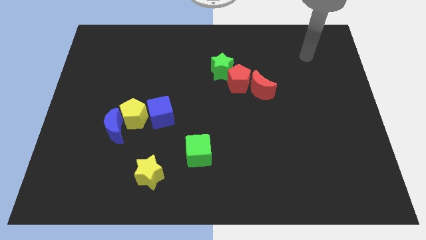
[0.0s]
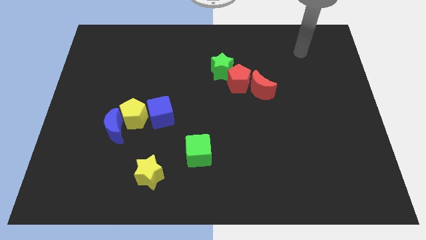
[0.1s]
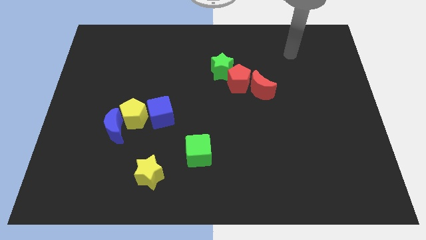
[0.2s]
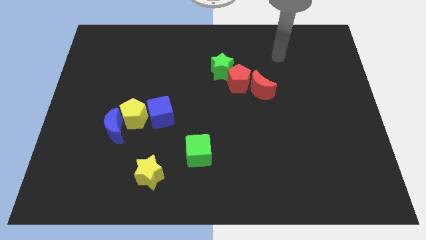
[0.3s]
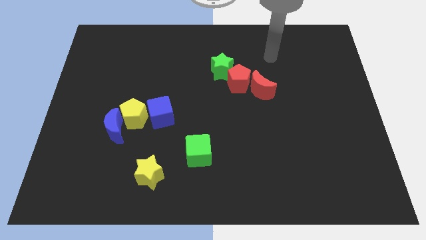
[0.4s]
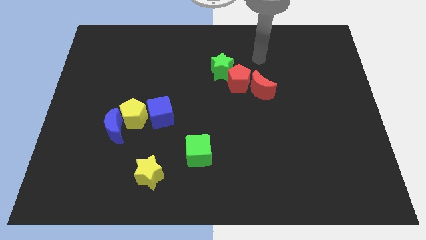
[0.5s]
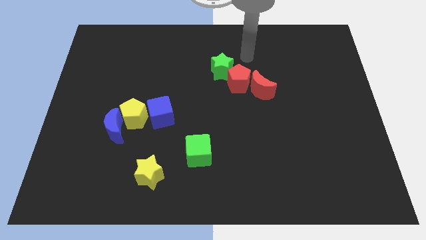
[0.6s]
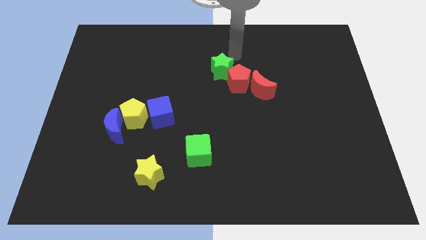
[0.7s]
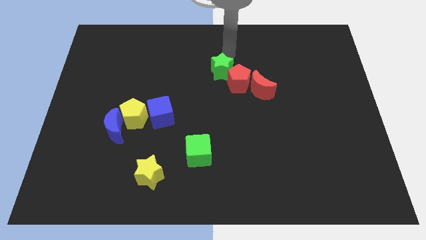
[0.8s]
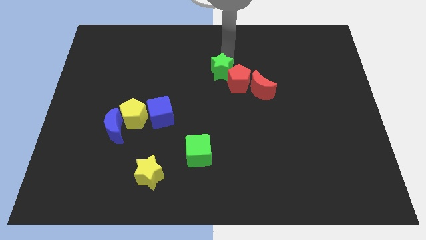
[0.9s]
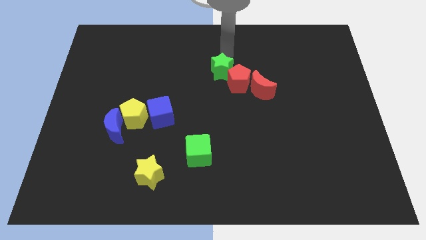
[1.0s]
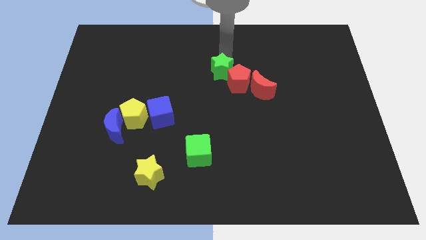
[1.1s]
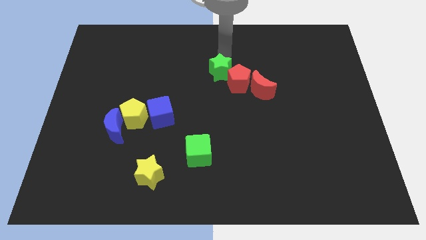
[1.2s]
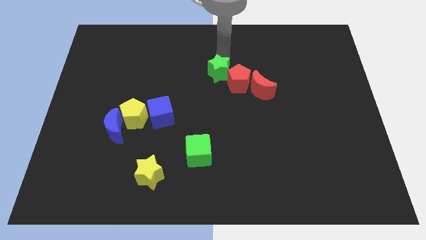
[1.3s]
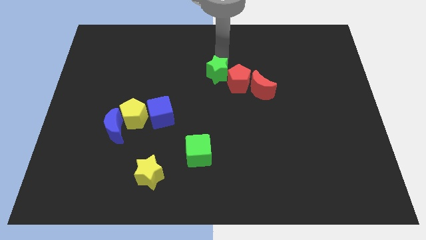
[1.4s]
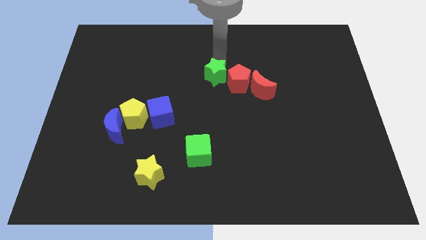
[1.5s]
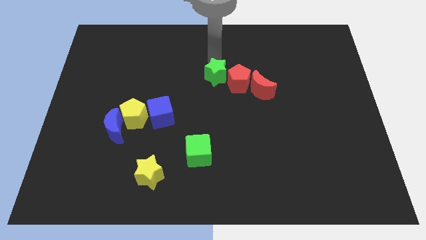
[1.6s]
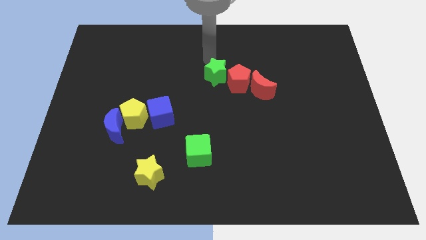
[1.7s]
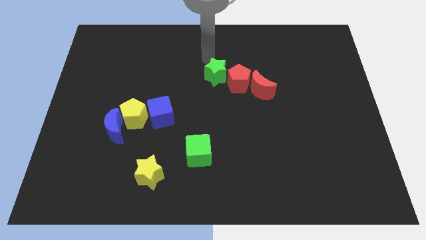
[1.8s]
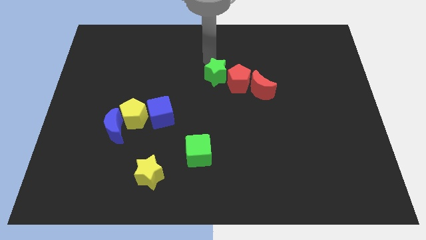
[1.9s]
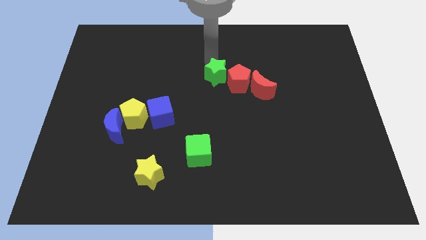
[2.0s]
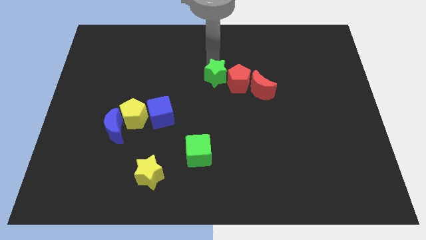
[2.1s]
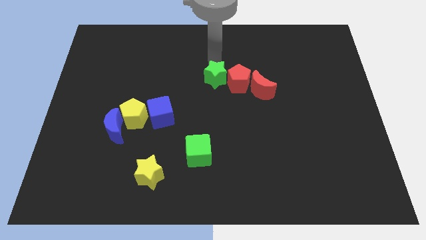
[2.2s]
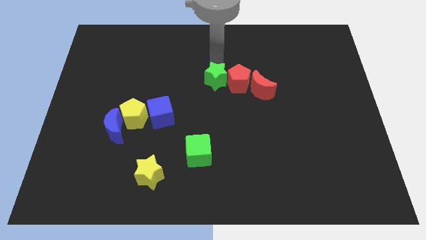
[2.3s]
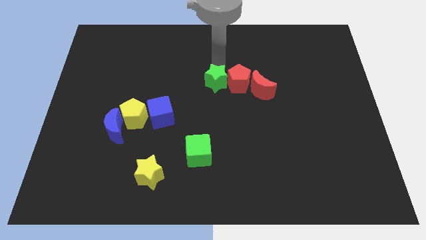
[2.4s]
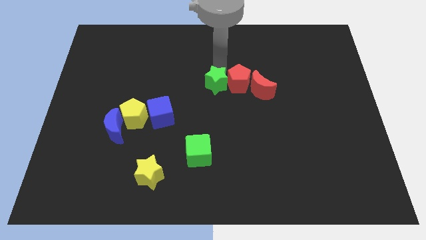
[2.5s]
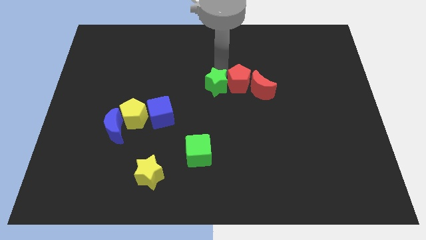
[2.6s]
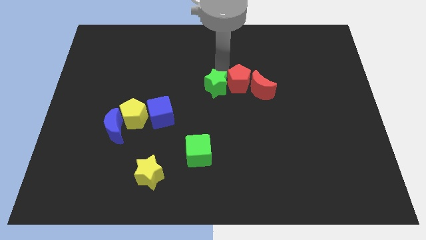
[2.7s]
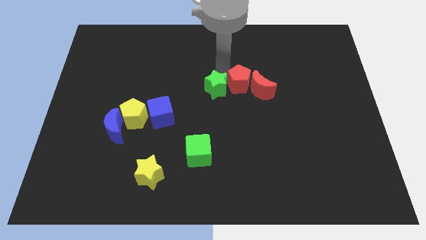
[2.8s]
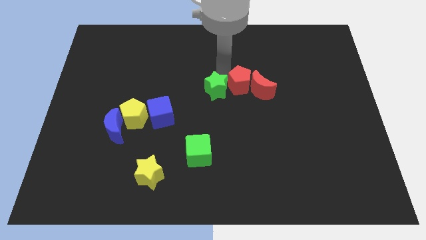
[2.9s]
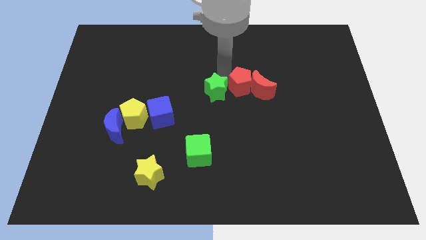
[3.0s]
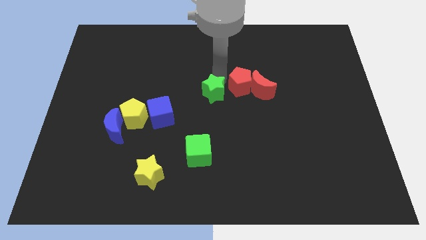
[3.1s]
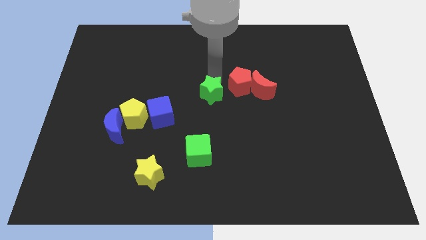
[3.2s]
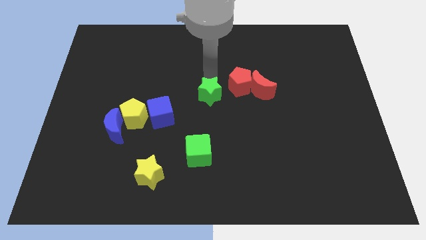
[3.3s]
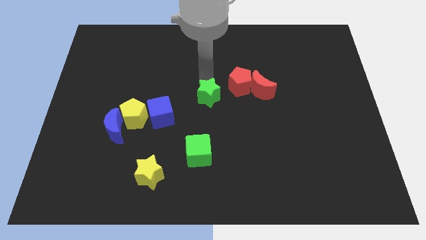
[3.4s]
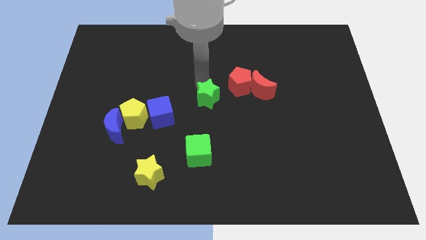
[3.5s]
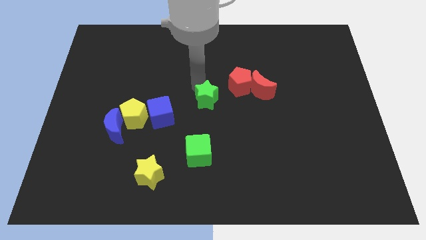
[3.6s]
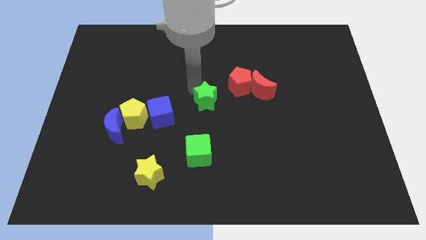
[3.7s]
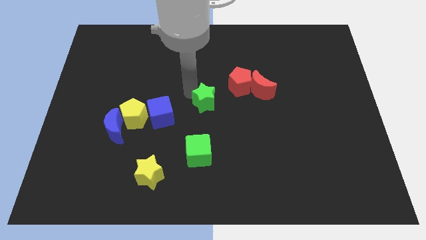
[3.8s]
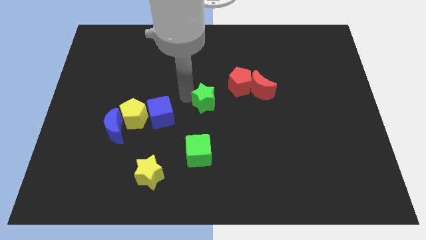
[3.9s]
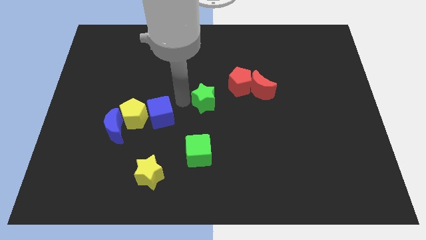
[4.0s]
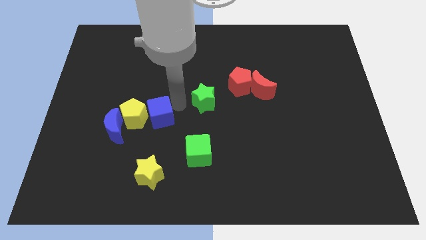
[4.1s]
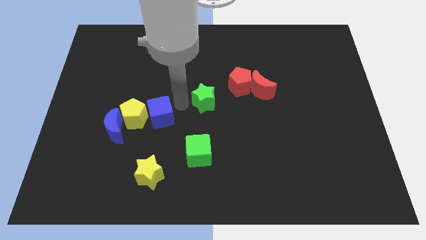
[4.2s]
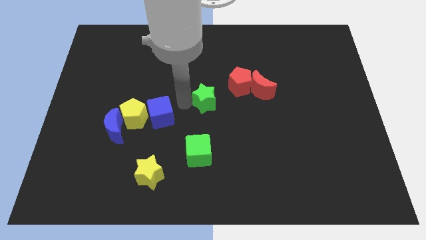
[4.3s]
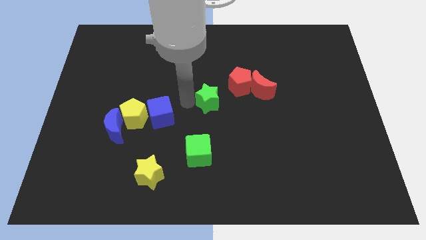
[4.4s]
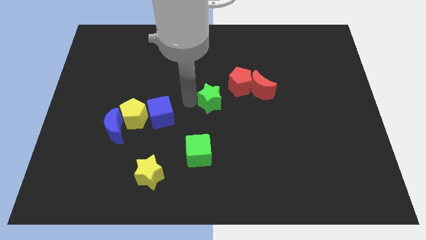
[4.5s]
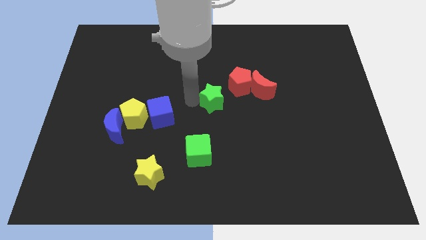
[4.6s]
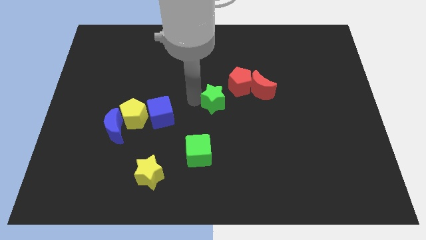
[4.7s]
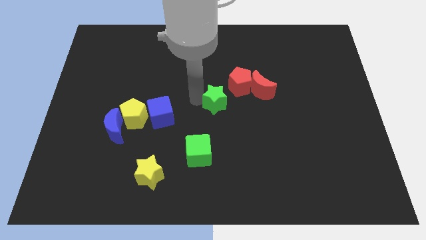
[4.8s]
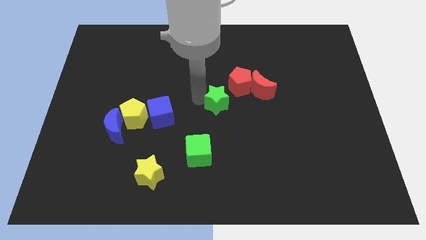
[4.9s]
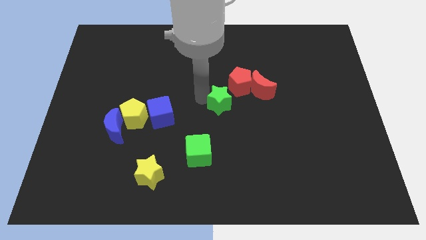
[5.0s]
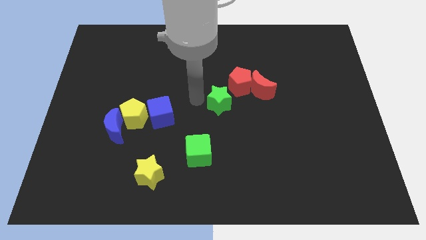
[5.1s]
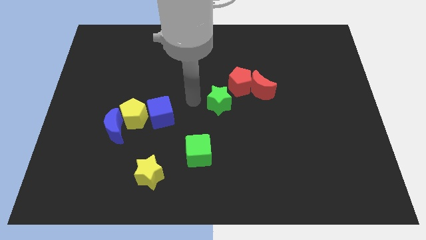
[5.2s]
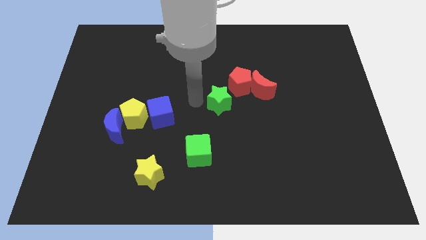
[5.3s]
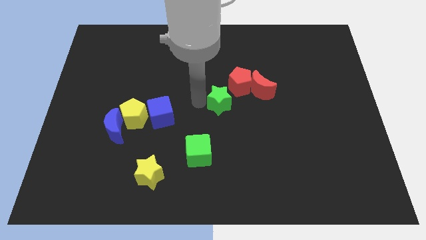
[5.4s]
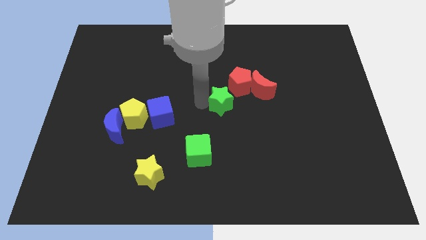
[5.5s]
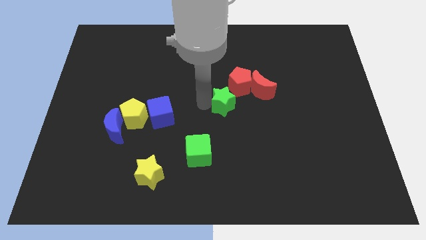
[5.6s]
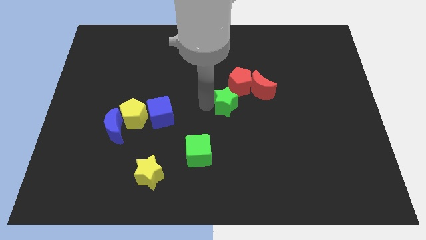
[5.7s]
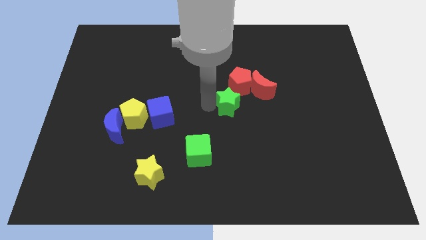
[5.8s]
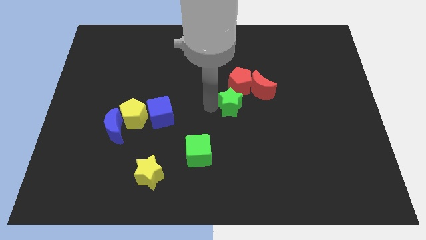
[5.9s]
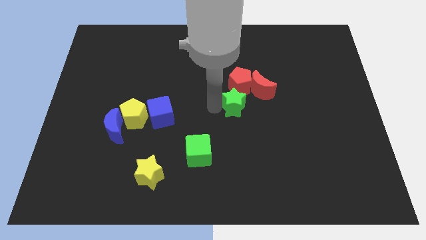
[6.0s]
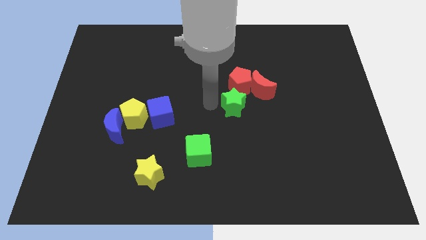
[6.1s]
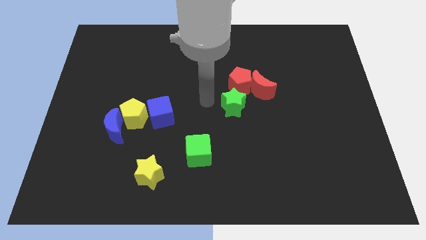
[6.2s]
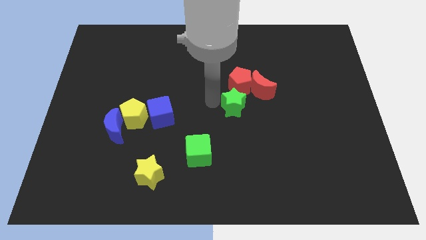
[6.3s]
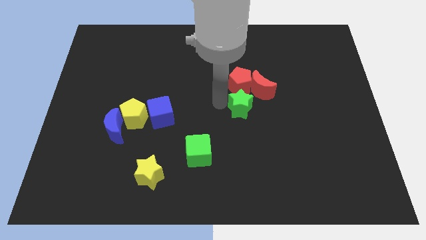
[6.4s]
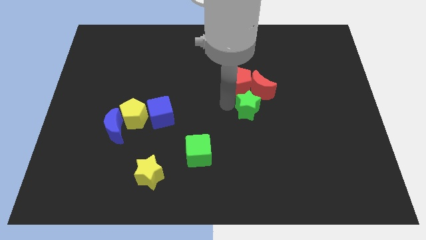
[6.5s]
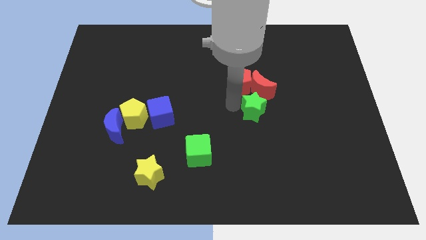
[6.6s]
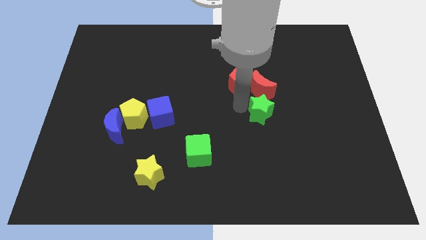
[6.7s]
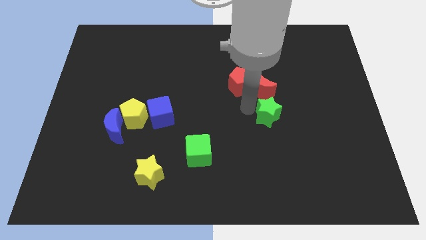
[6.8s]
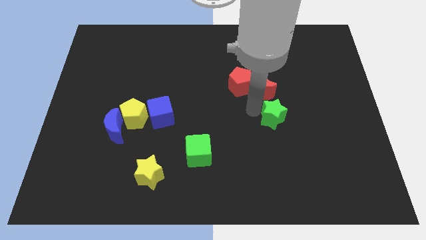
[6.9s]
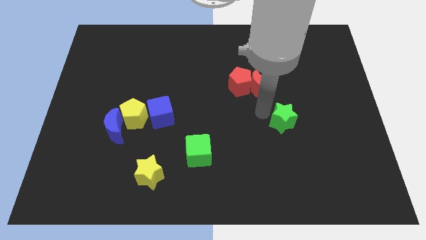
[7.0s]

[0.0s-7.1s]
move the green star diagonally down and to the right

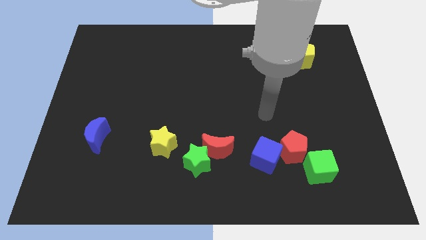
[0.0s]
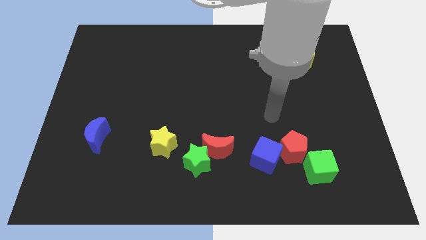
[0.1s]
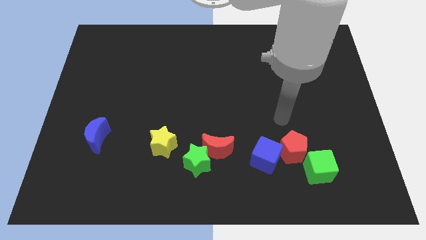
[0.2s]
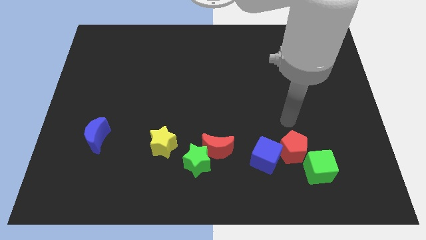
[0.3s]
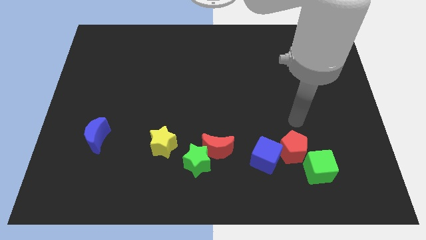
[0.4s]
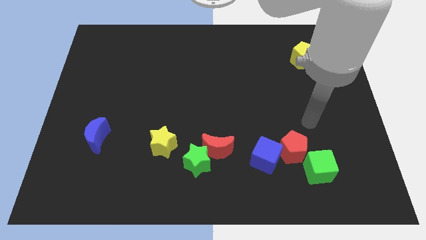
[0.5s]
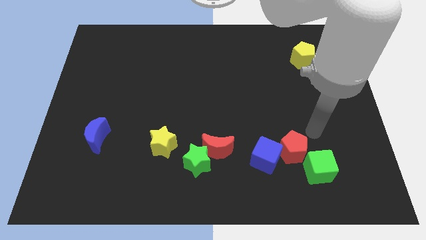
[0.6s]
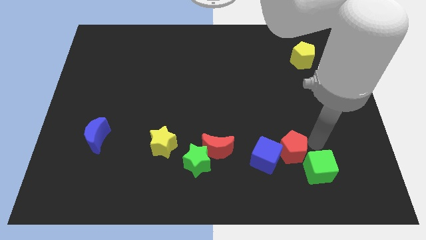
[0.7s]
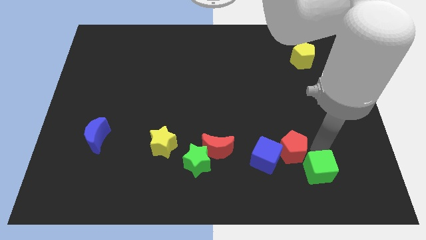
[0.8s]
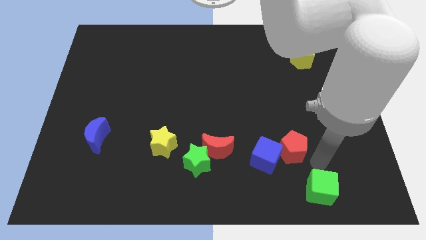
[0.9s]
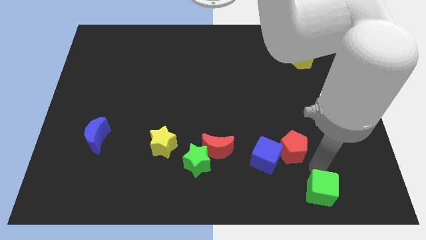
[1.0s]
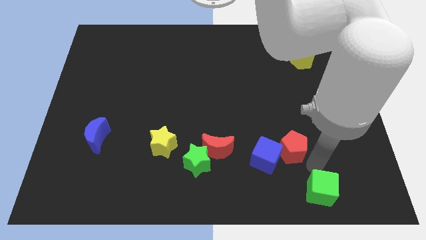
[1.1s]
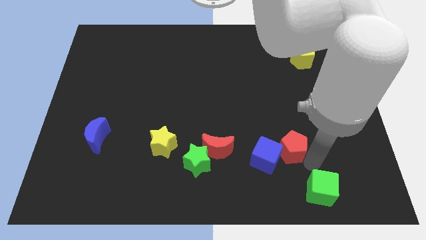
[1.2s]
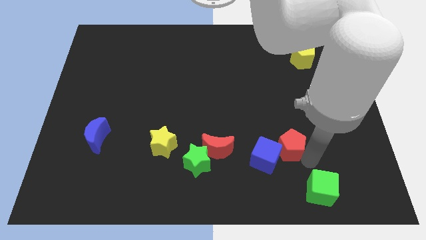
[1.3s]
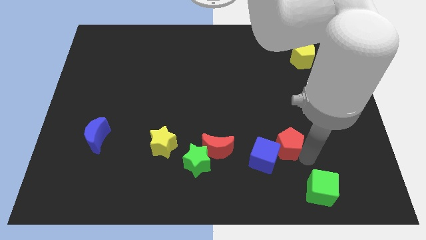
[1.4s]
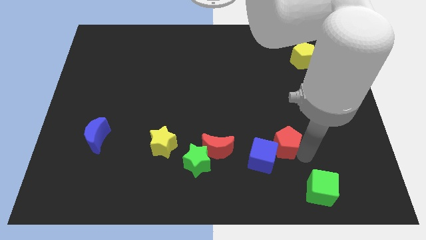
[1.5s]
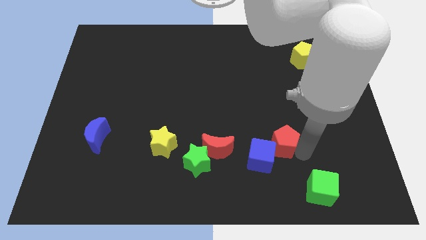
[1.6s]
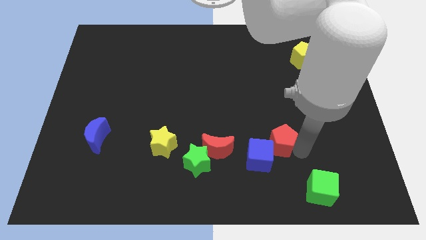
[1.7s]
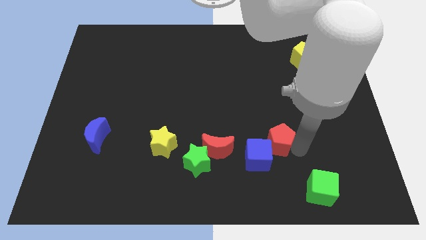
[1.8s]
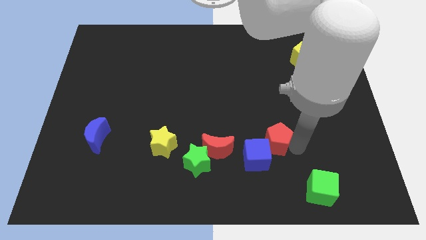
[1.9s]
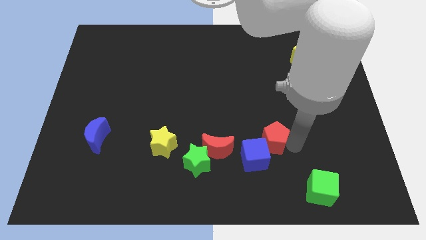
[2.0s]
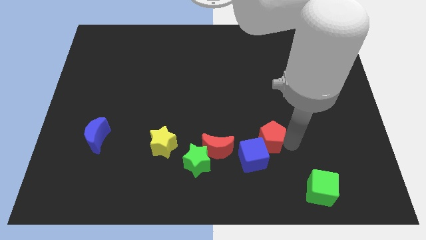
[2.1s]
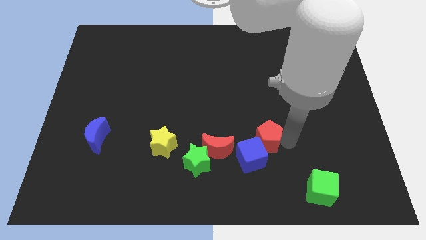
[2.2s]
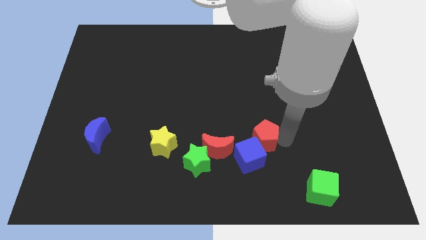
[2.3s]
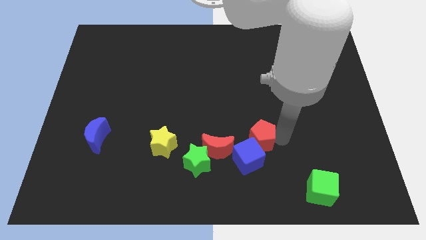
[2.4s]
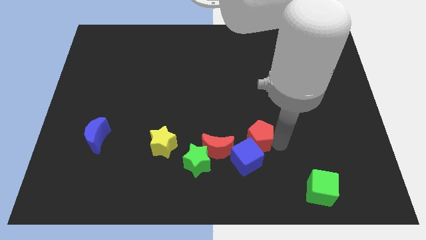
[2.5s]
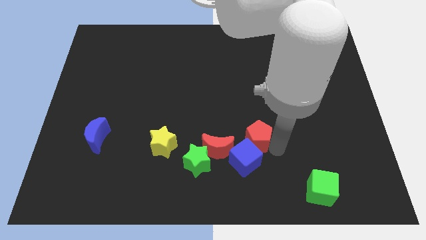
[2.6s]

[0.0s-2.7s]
push the red pentagon diagonally upwards and to the left a little
